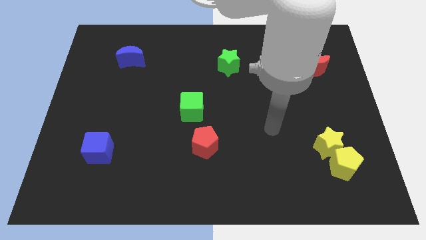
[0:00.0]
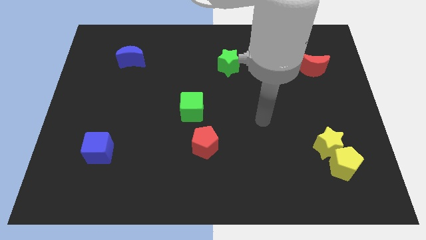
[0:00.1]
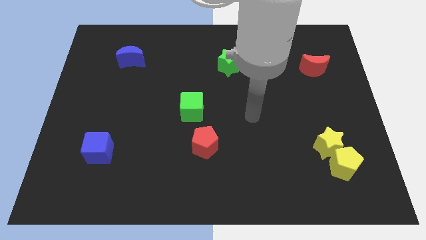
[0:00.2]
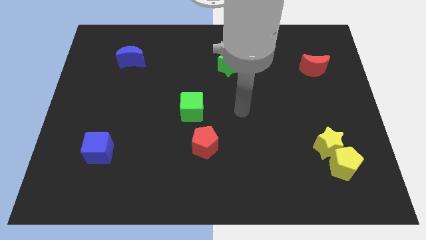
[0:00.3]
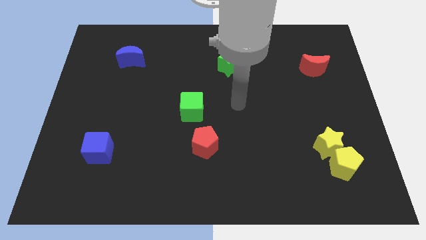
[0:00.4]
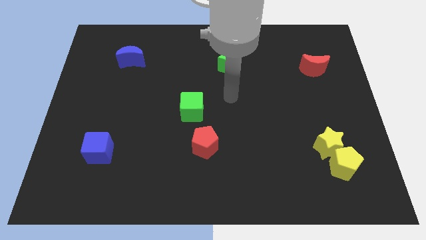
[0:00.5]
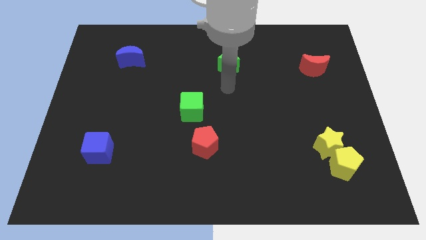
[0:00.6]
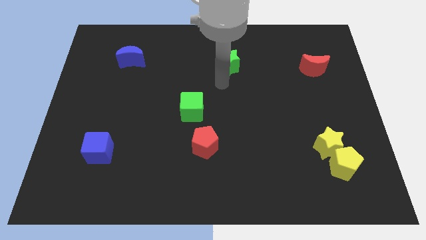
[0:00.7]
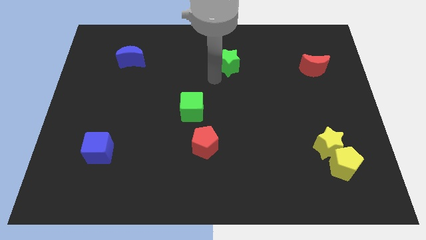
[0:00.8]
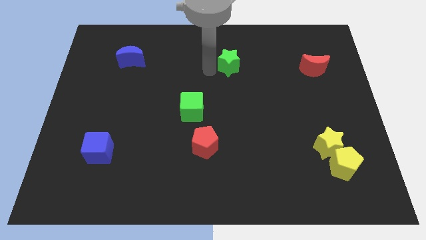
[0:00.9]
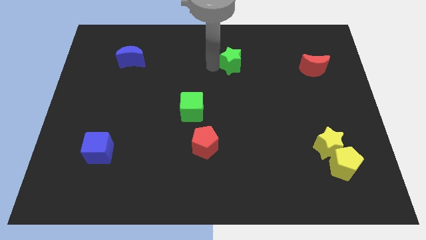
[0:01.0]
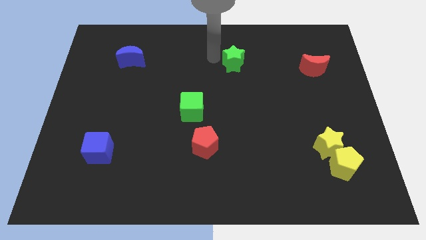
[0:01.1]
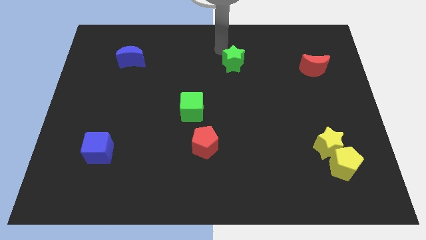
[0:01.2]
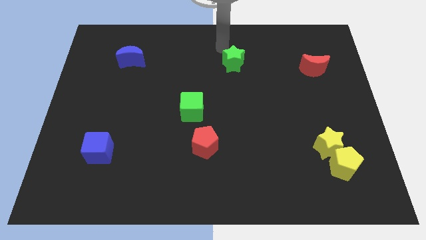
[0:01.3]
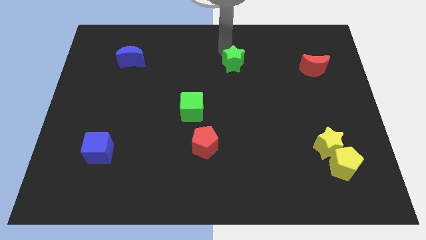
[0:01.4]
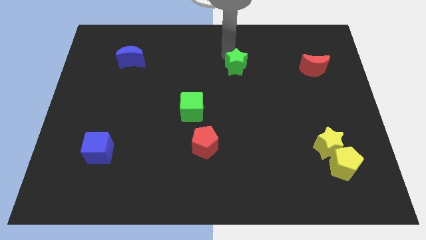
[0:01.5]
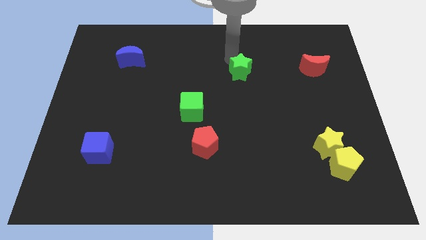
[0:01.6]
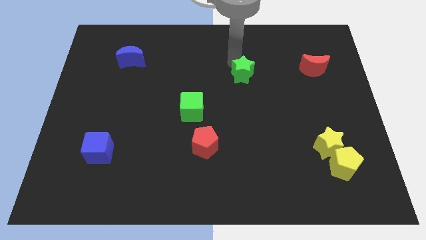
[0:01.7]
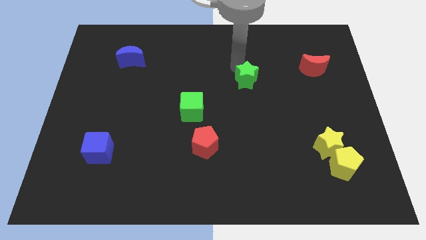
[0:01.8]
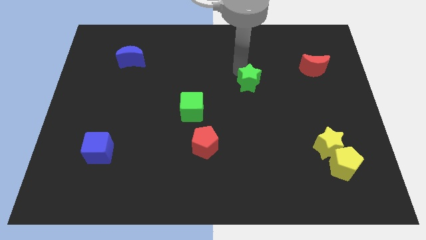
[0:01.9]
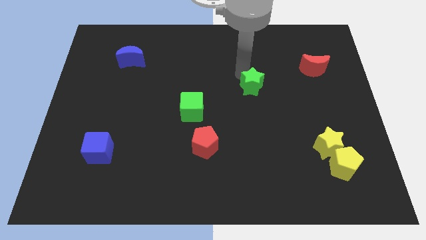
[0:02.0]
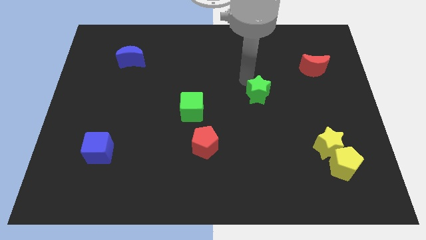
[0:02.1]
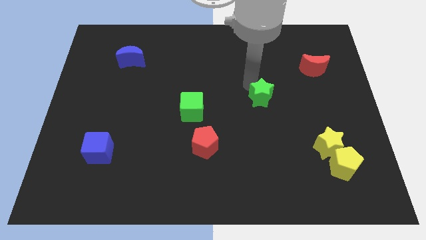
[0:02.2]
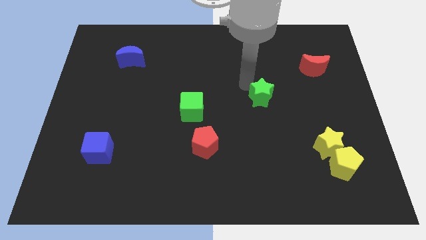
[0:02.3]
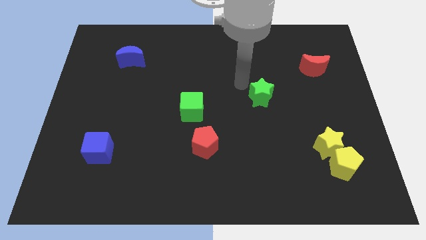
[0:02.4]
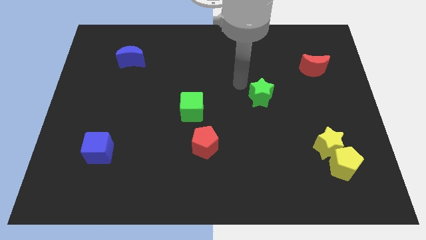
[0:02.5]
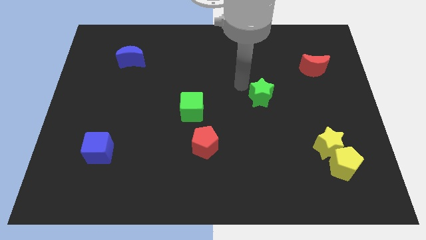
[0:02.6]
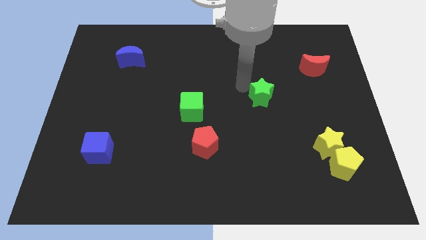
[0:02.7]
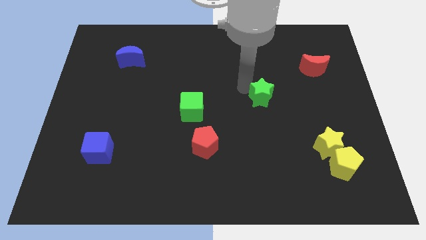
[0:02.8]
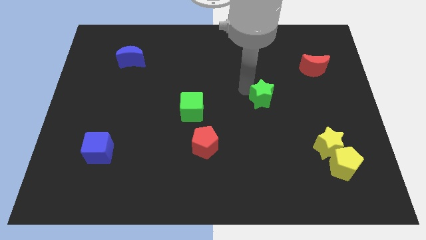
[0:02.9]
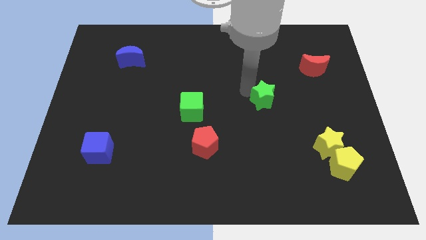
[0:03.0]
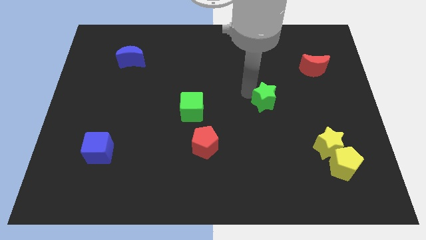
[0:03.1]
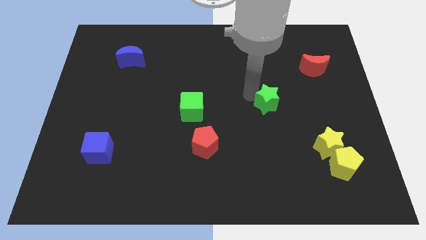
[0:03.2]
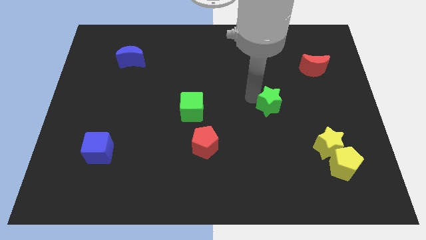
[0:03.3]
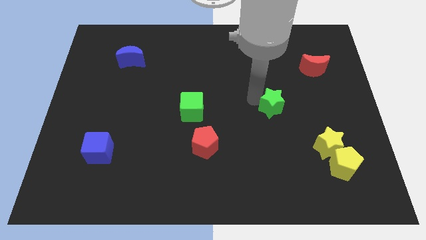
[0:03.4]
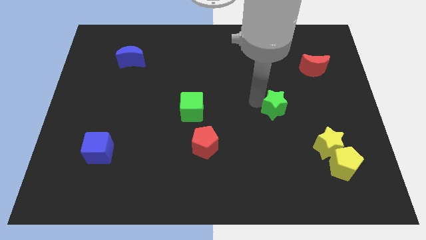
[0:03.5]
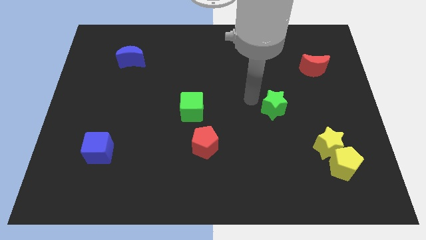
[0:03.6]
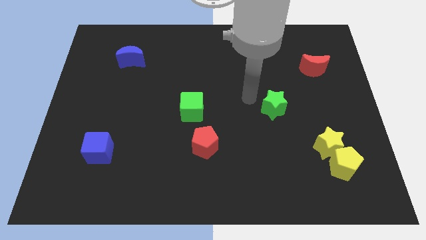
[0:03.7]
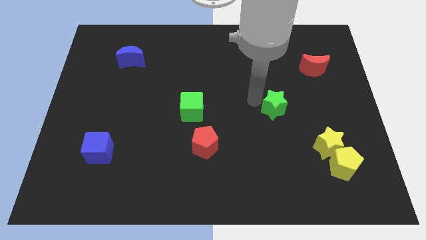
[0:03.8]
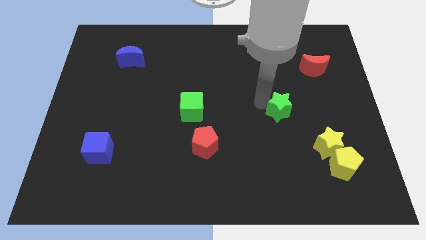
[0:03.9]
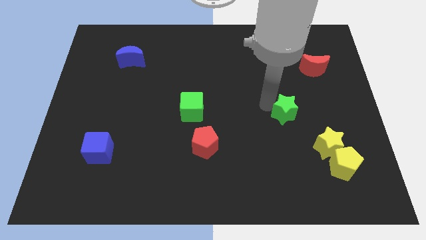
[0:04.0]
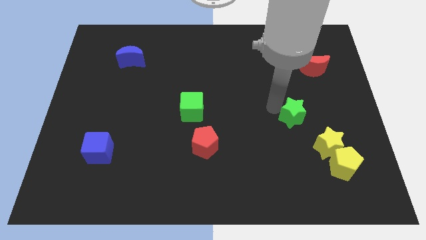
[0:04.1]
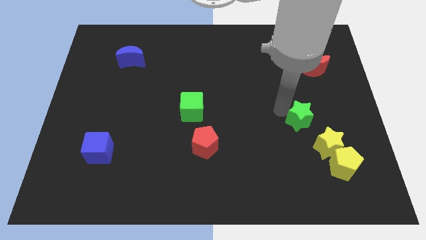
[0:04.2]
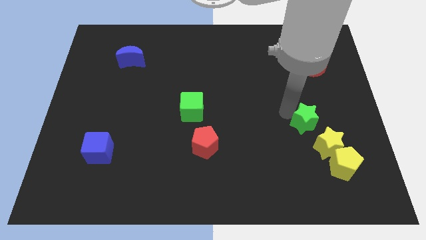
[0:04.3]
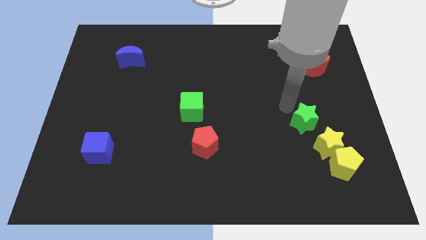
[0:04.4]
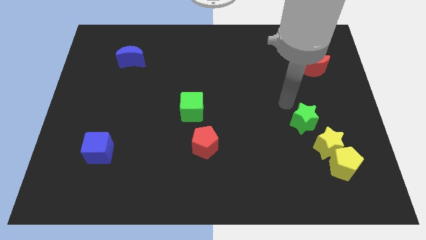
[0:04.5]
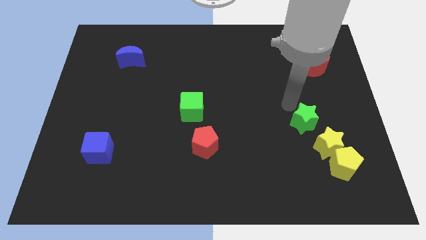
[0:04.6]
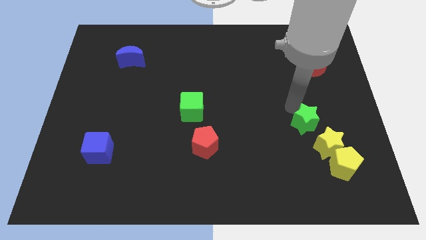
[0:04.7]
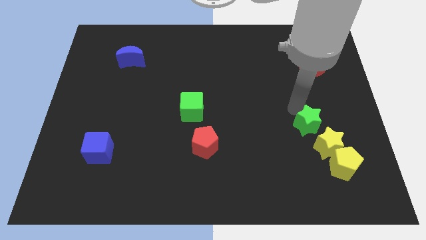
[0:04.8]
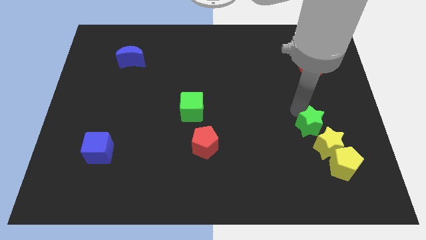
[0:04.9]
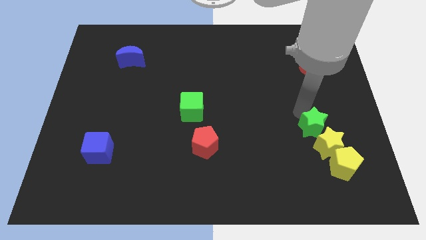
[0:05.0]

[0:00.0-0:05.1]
move the green star next to the yellow star

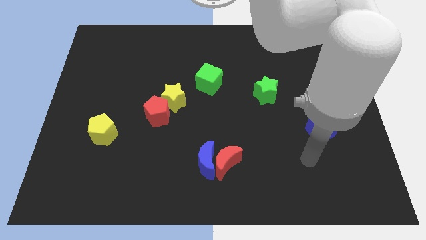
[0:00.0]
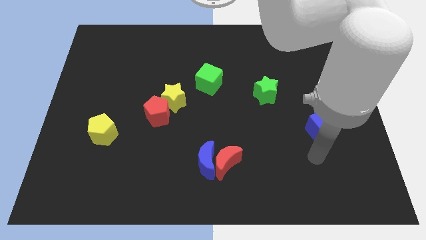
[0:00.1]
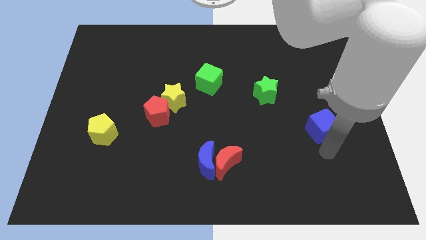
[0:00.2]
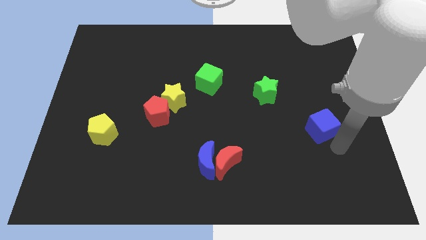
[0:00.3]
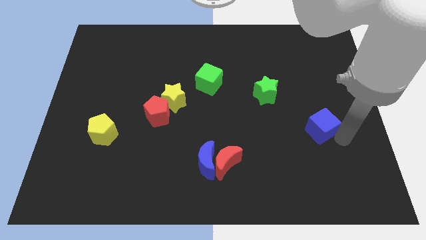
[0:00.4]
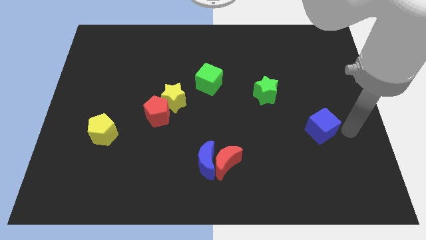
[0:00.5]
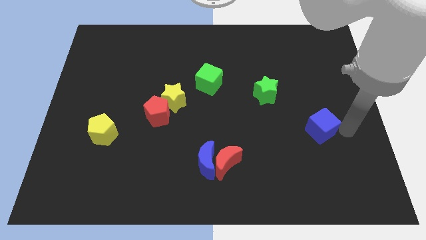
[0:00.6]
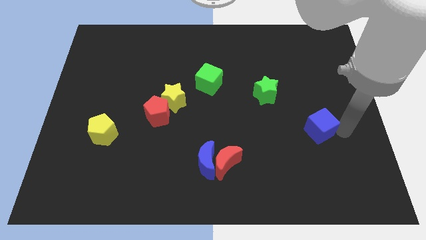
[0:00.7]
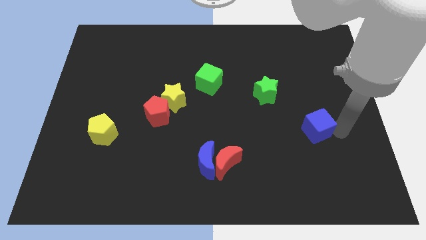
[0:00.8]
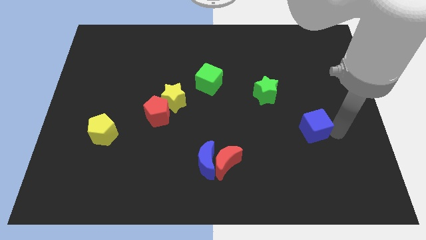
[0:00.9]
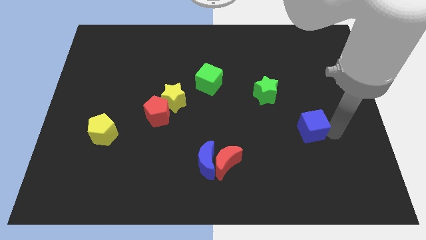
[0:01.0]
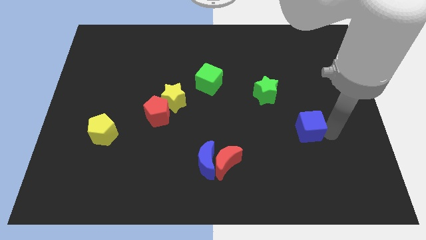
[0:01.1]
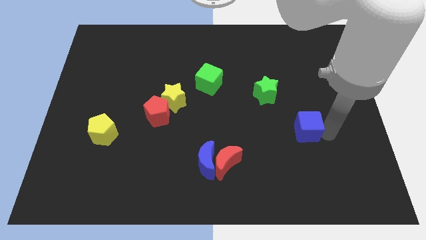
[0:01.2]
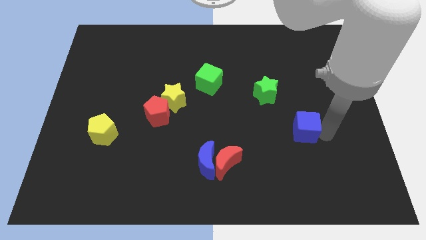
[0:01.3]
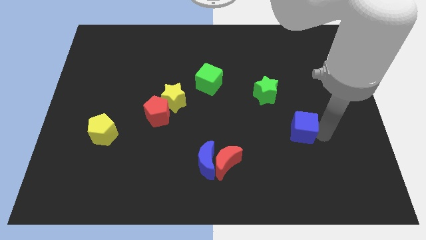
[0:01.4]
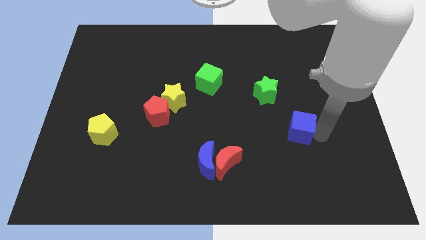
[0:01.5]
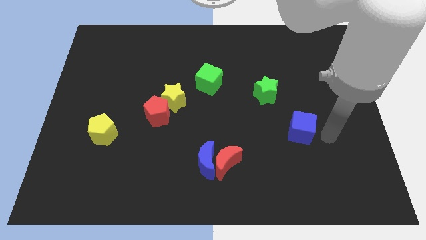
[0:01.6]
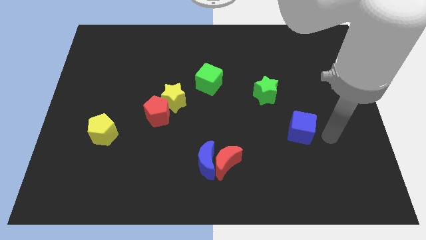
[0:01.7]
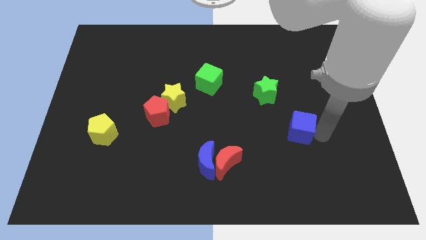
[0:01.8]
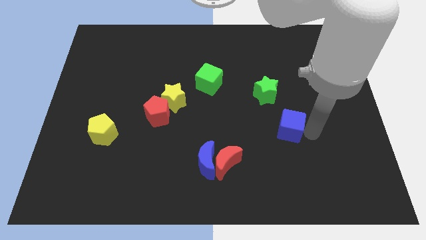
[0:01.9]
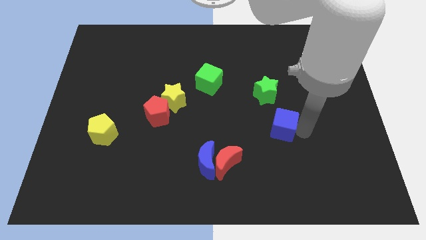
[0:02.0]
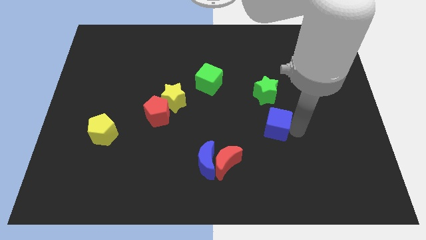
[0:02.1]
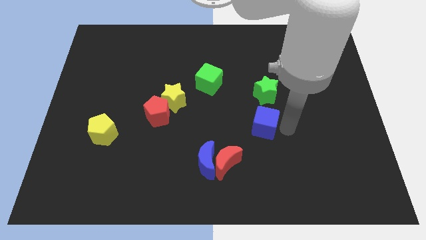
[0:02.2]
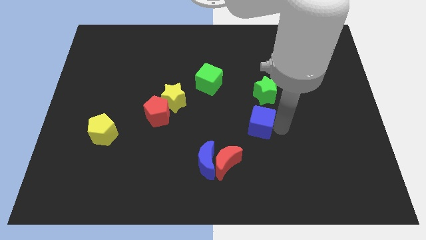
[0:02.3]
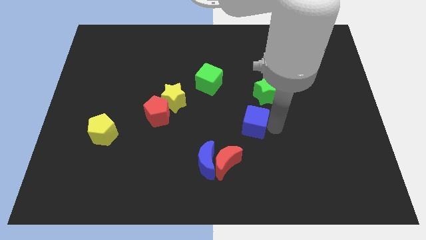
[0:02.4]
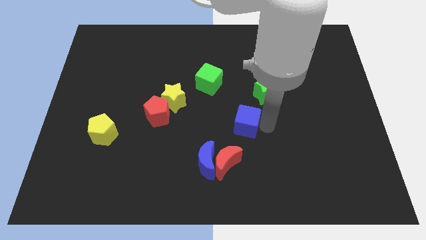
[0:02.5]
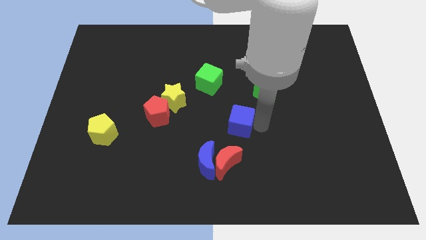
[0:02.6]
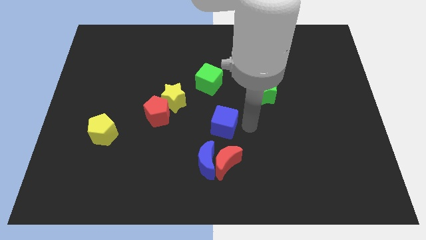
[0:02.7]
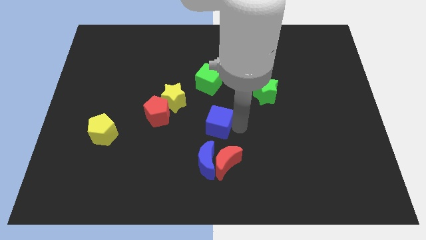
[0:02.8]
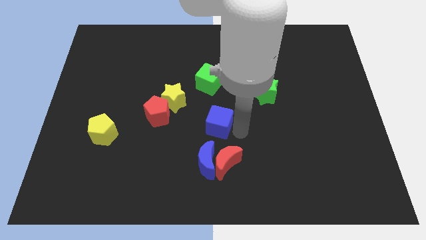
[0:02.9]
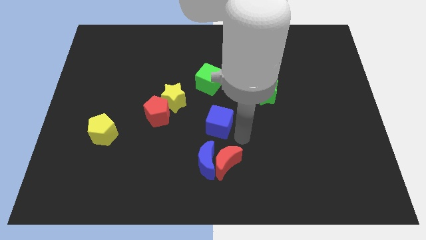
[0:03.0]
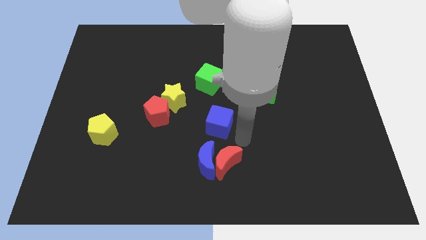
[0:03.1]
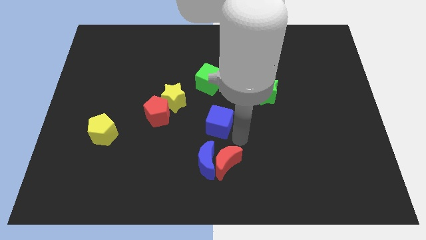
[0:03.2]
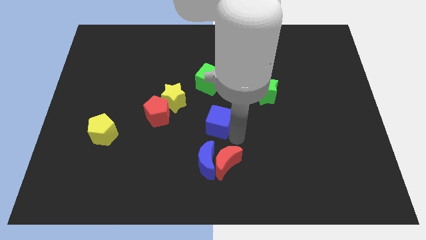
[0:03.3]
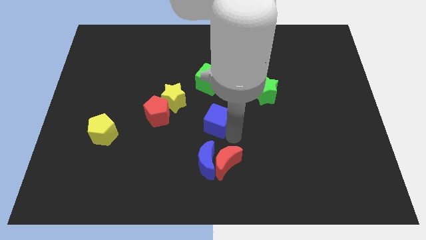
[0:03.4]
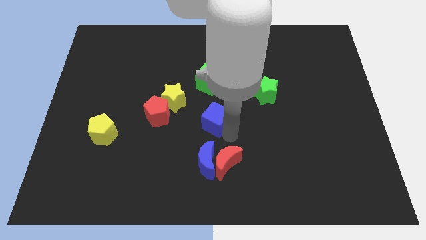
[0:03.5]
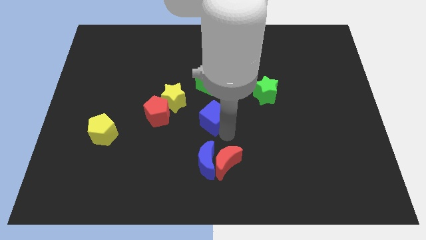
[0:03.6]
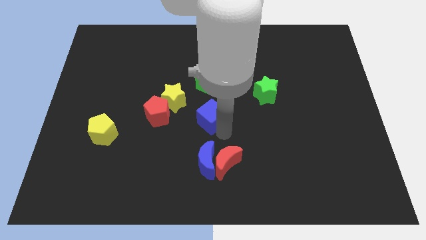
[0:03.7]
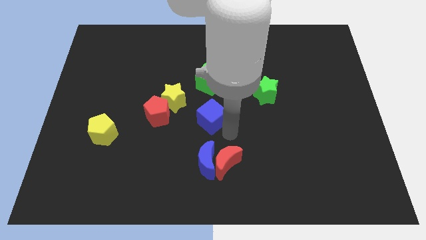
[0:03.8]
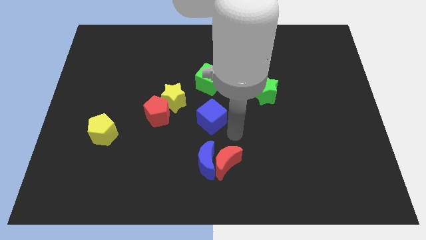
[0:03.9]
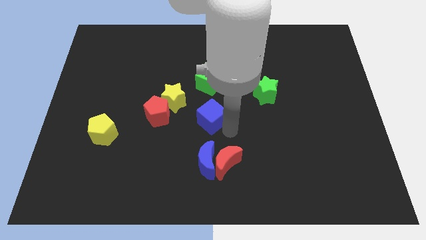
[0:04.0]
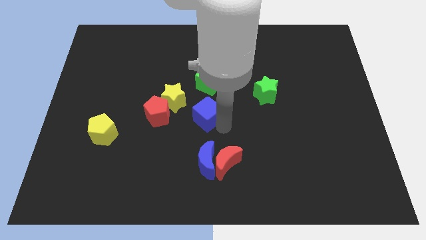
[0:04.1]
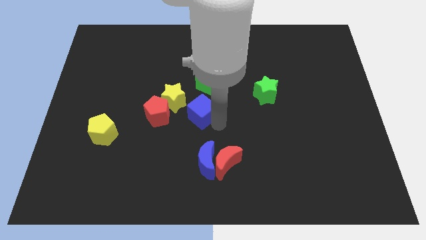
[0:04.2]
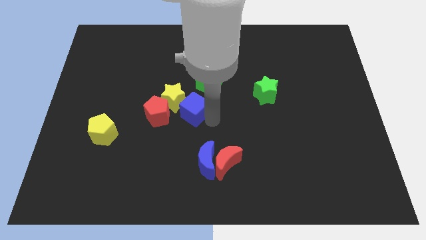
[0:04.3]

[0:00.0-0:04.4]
slide the blue cube towards the yellow star
